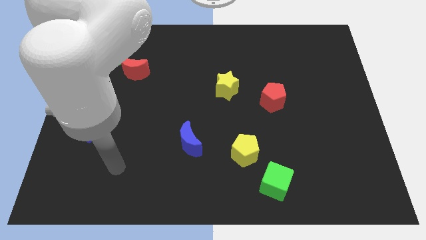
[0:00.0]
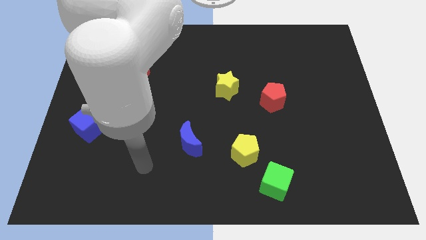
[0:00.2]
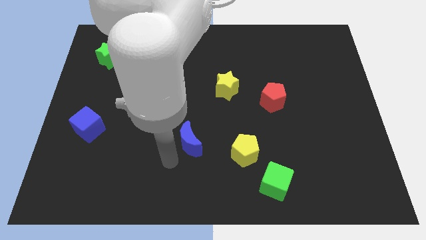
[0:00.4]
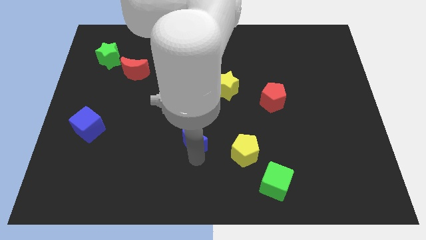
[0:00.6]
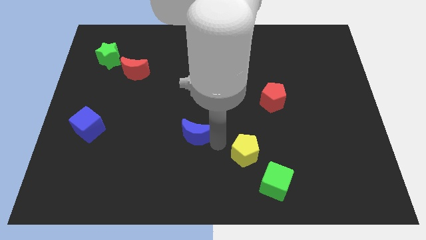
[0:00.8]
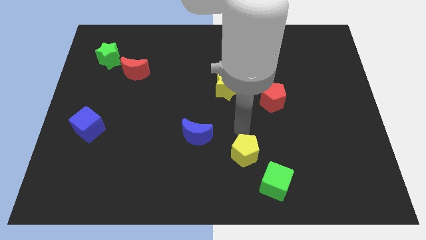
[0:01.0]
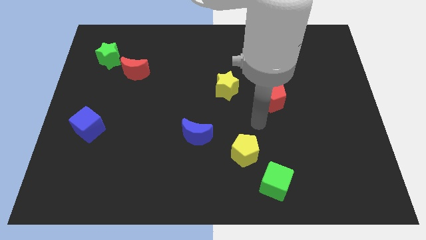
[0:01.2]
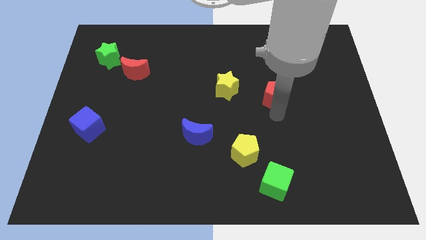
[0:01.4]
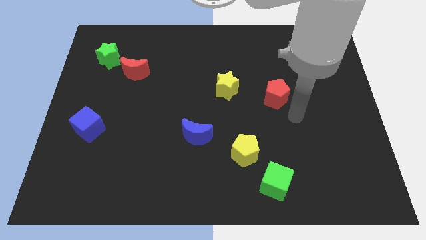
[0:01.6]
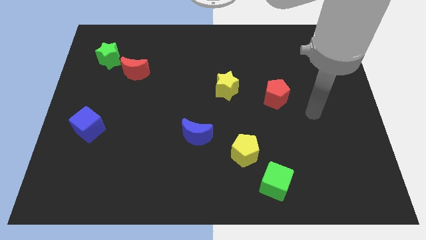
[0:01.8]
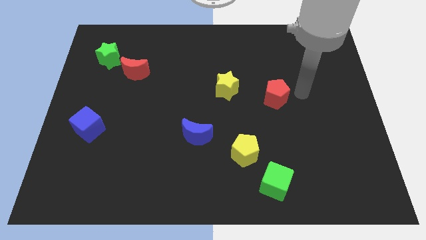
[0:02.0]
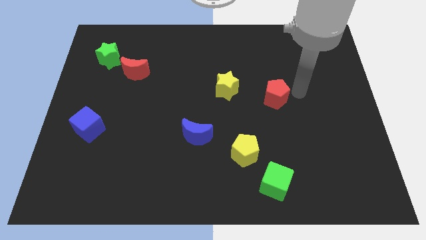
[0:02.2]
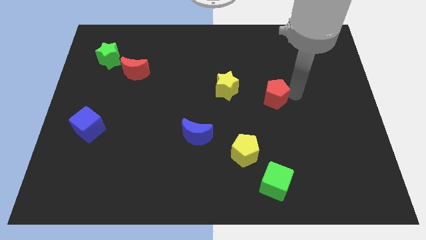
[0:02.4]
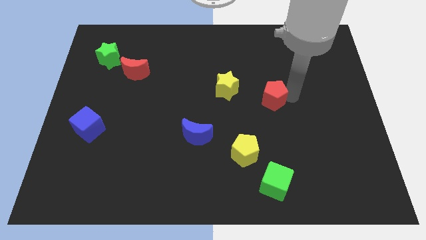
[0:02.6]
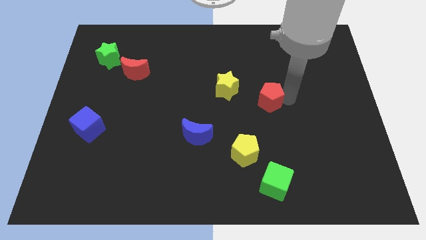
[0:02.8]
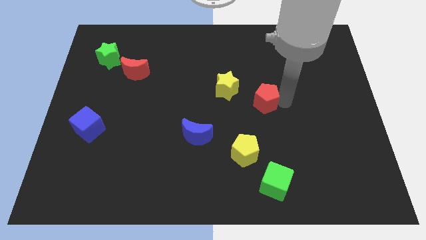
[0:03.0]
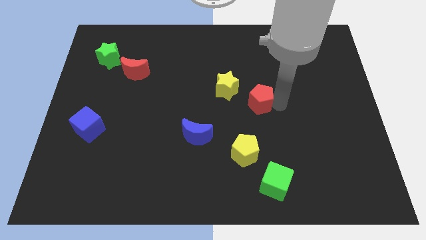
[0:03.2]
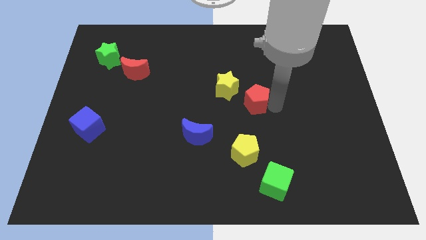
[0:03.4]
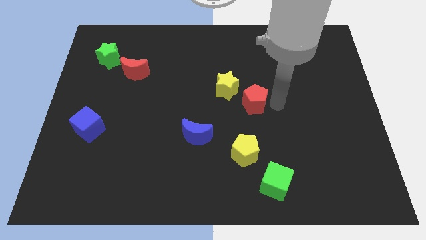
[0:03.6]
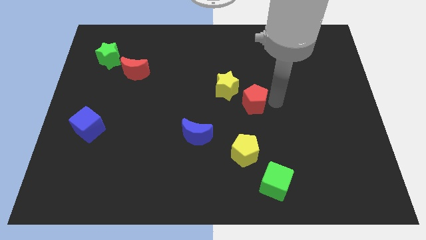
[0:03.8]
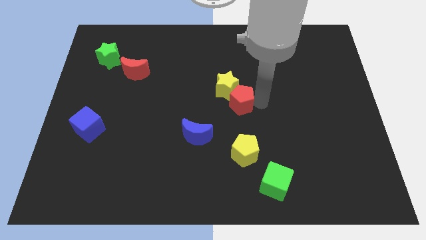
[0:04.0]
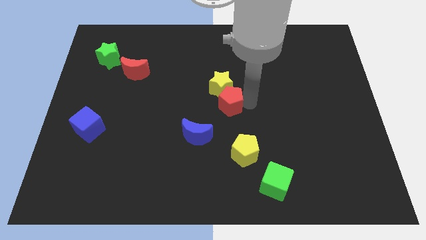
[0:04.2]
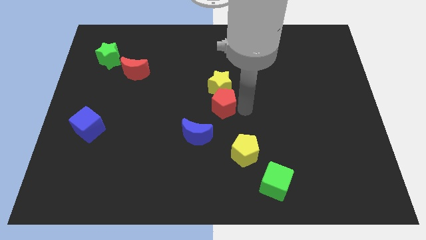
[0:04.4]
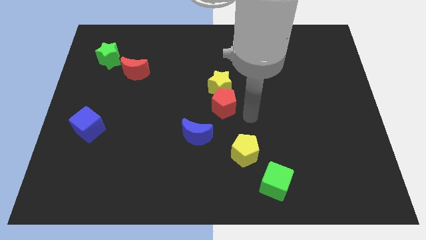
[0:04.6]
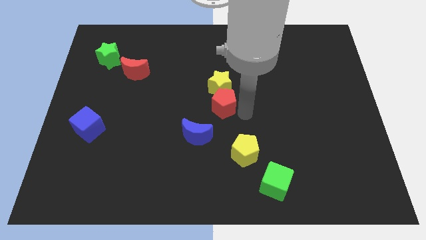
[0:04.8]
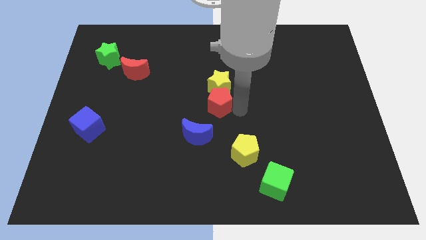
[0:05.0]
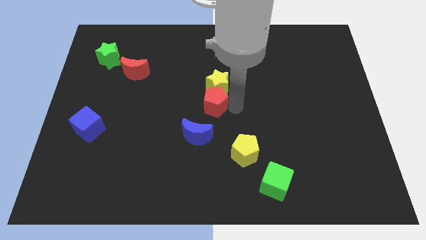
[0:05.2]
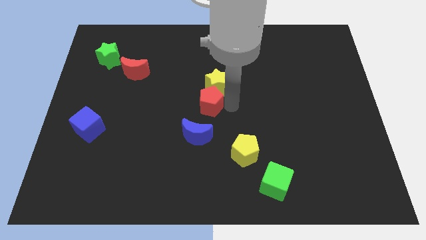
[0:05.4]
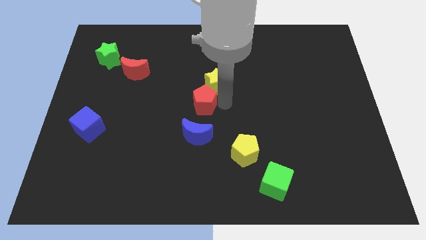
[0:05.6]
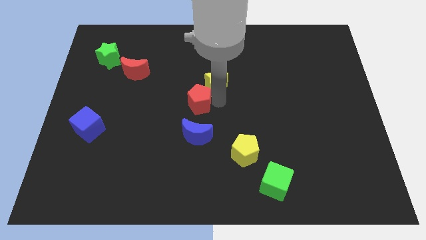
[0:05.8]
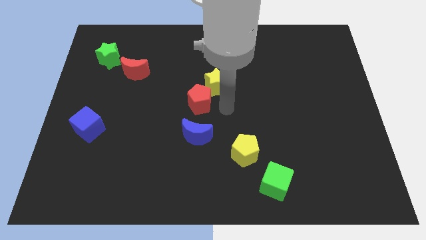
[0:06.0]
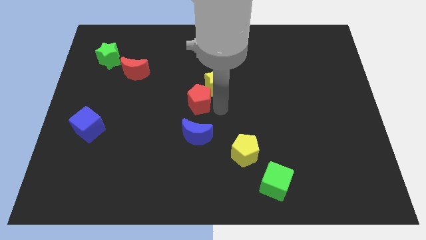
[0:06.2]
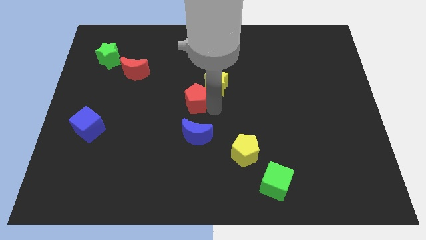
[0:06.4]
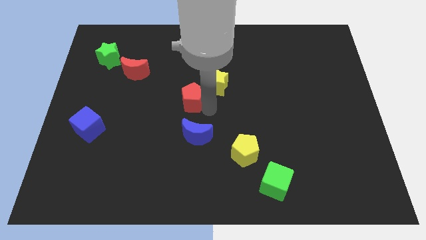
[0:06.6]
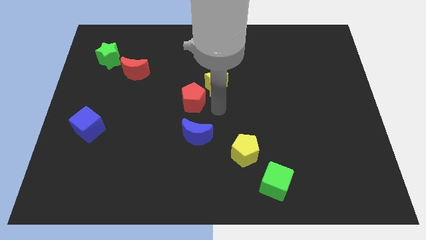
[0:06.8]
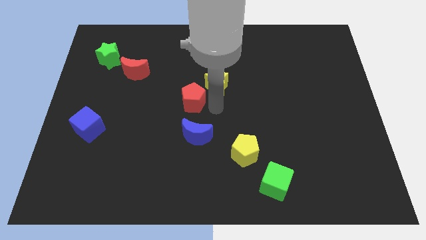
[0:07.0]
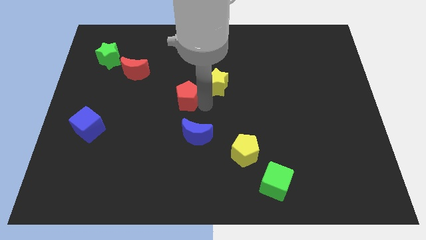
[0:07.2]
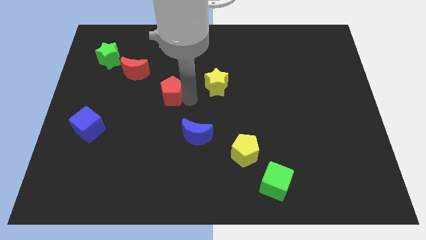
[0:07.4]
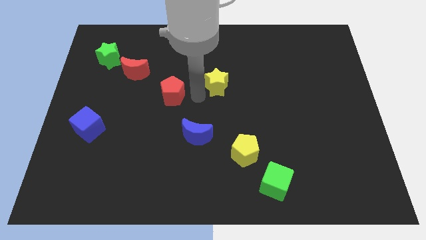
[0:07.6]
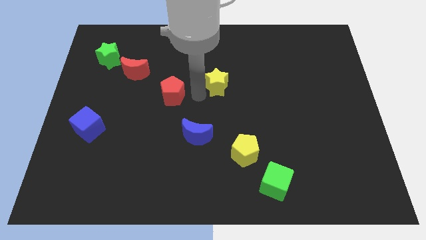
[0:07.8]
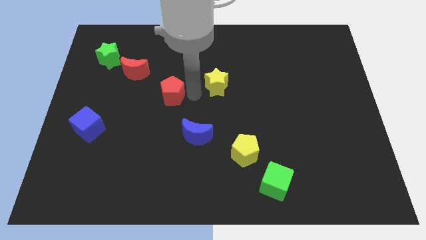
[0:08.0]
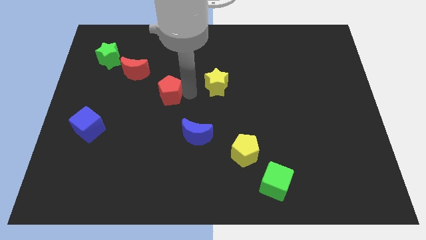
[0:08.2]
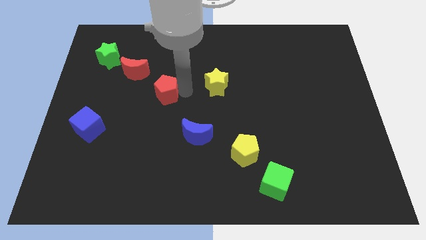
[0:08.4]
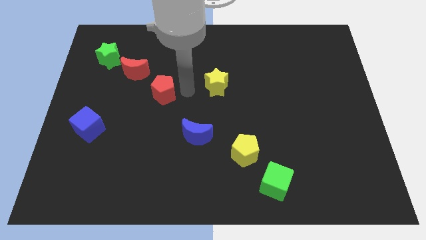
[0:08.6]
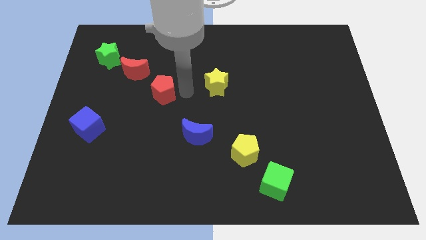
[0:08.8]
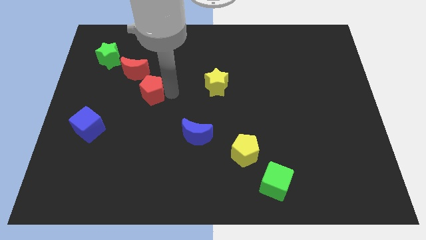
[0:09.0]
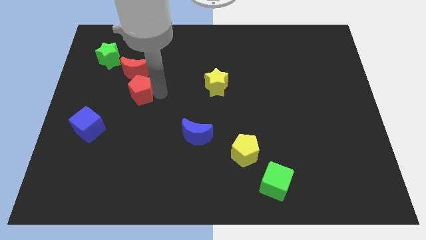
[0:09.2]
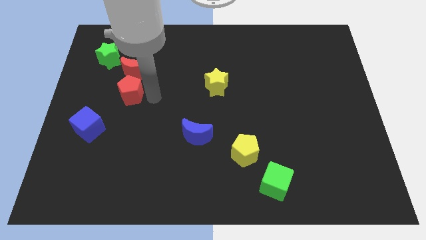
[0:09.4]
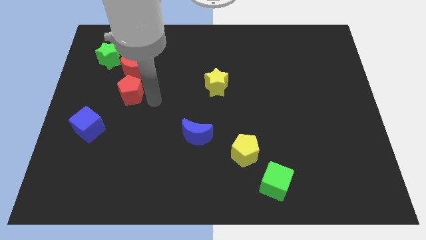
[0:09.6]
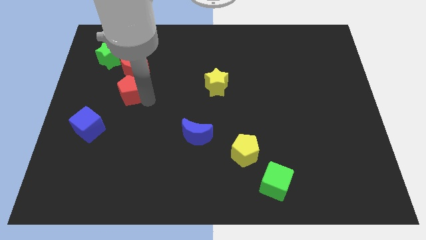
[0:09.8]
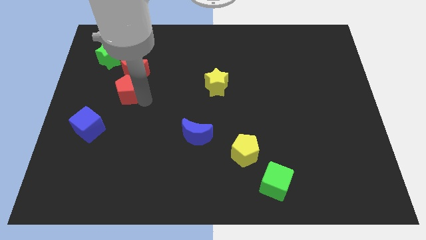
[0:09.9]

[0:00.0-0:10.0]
move the red pentagon to the bottom left of the red moon

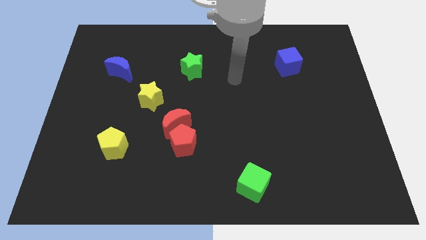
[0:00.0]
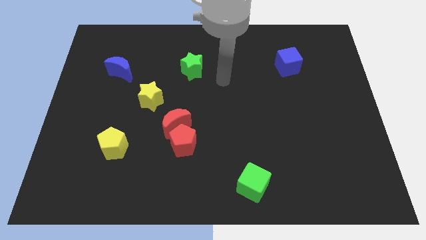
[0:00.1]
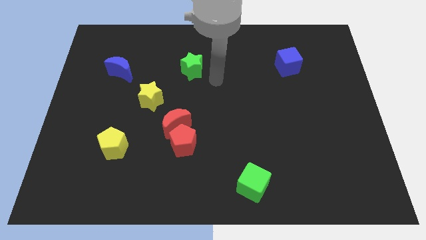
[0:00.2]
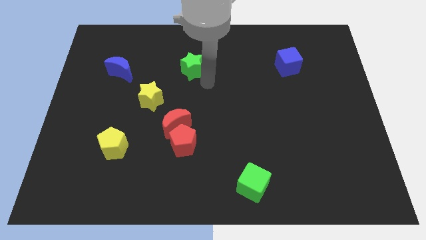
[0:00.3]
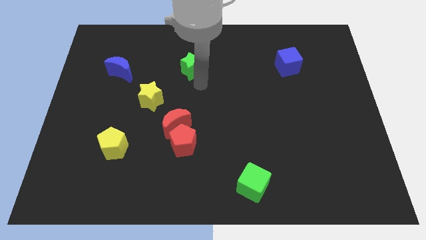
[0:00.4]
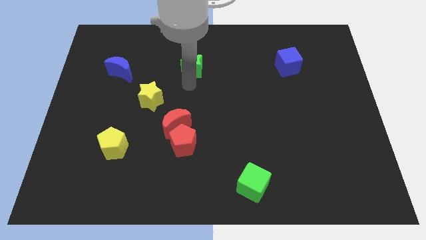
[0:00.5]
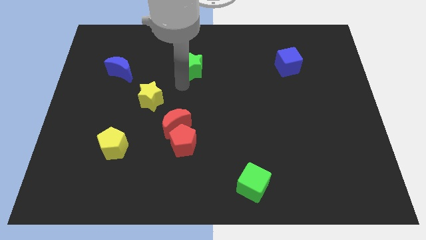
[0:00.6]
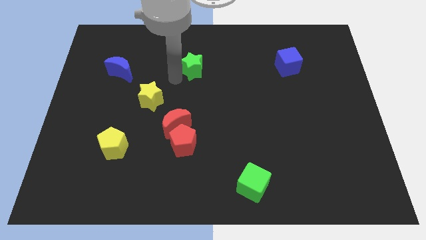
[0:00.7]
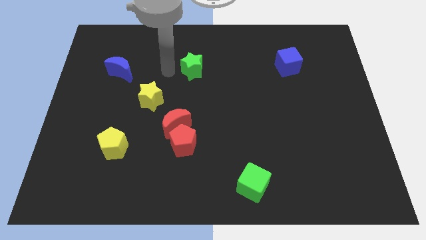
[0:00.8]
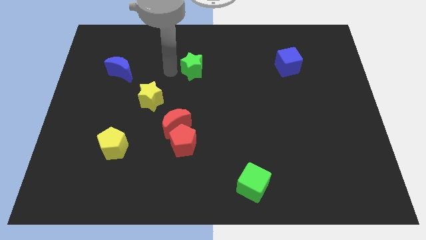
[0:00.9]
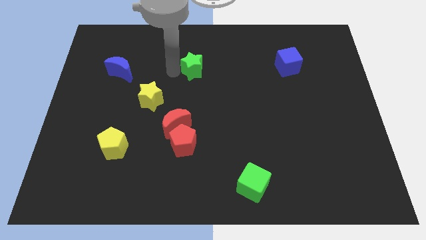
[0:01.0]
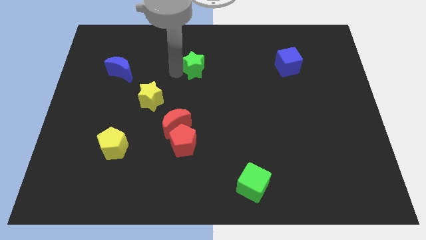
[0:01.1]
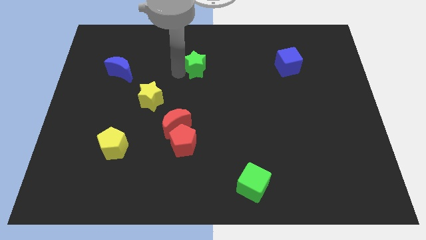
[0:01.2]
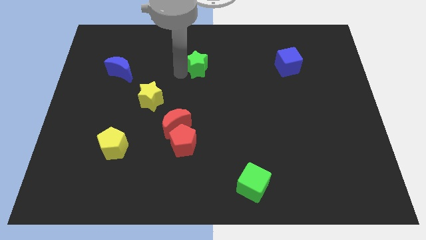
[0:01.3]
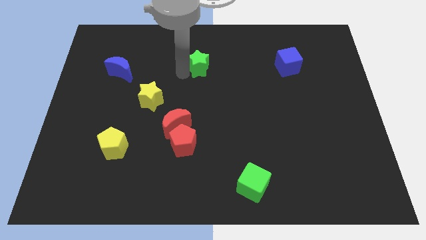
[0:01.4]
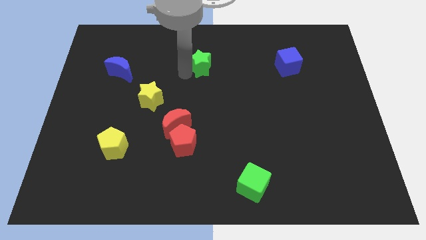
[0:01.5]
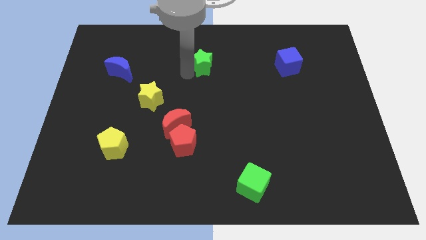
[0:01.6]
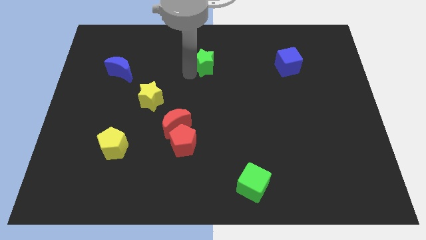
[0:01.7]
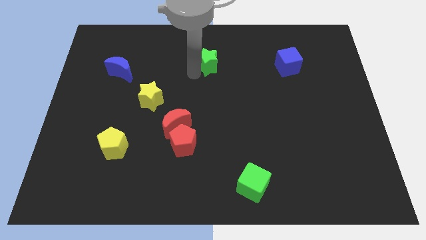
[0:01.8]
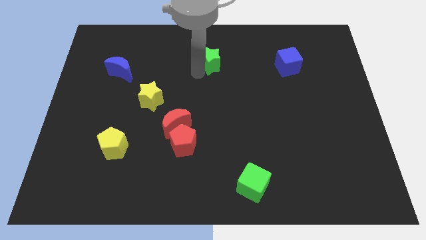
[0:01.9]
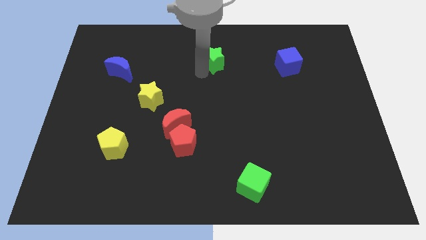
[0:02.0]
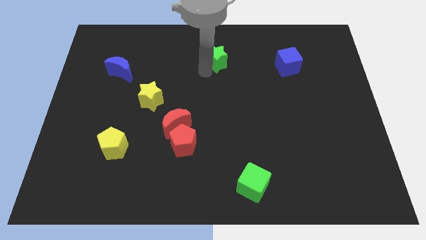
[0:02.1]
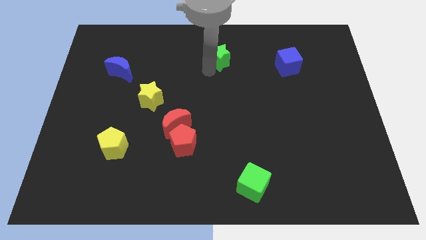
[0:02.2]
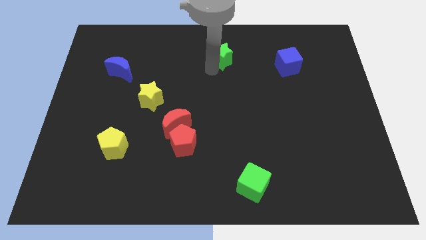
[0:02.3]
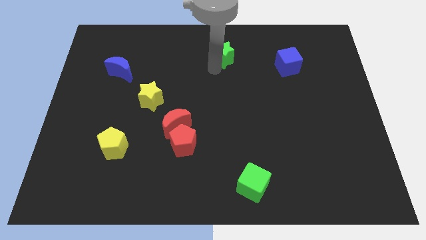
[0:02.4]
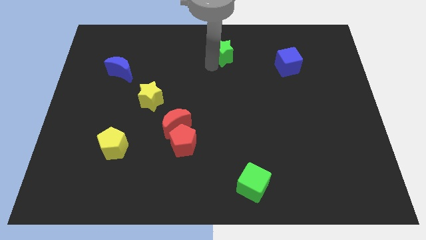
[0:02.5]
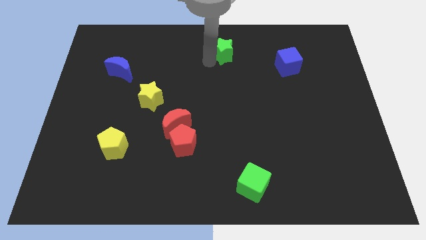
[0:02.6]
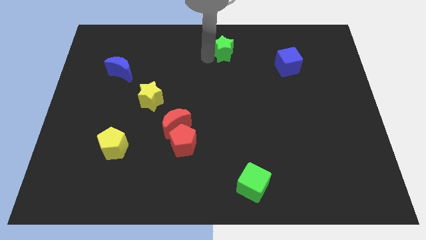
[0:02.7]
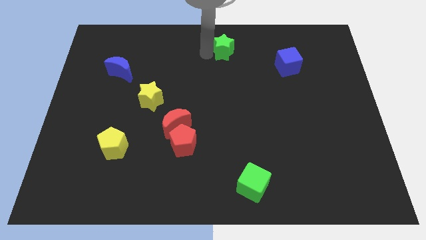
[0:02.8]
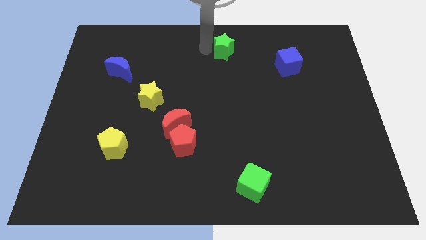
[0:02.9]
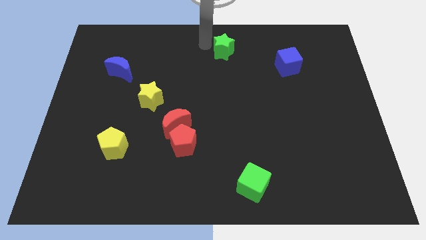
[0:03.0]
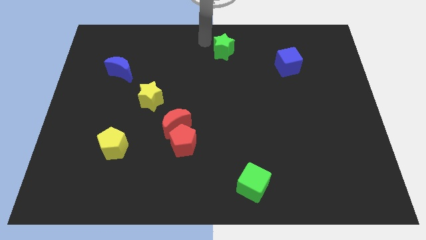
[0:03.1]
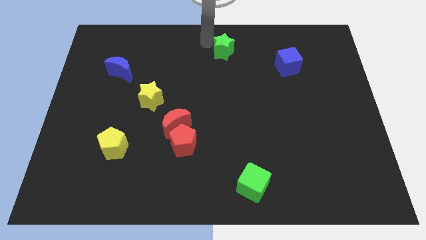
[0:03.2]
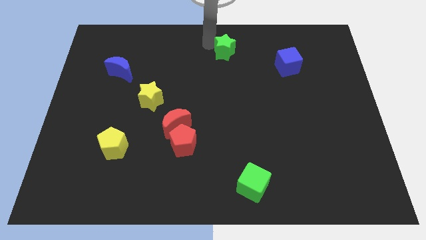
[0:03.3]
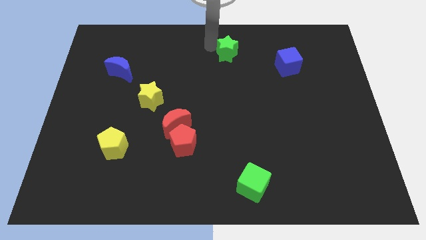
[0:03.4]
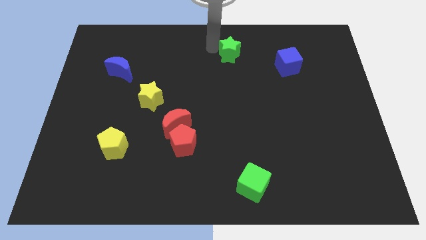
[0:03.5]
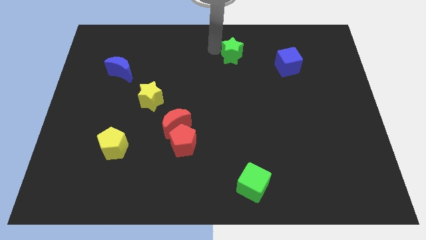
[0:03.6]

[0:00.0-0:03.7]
slide the green star to the left of the blue cube
